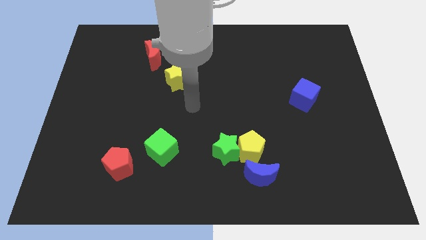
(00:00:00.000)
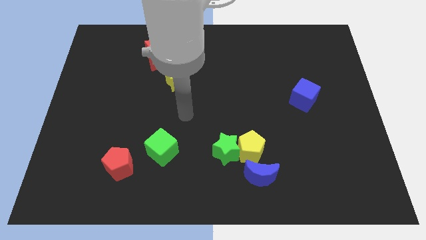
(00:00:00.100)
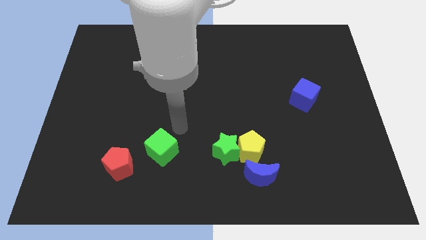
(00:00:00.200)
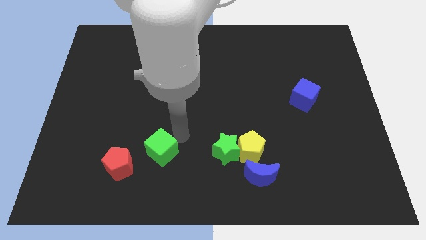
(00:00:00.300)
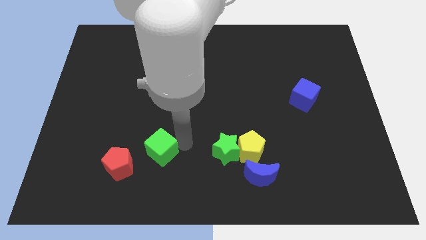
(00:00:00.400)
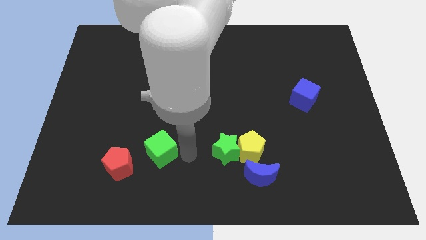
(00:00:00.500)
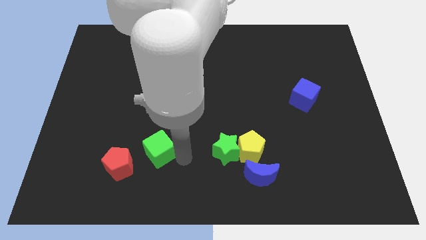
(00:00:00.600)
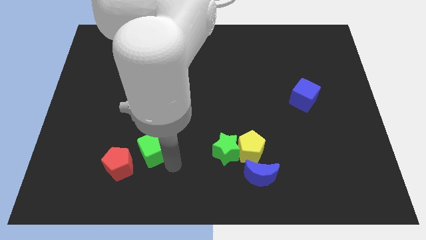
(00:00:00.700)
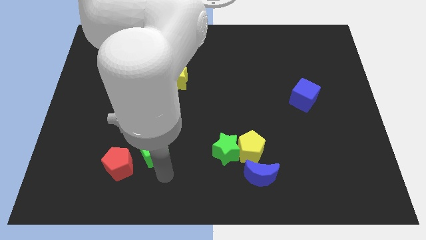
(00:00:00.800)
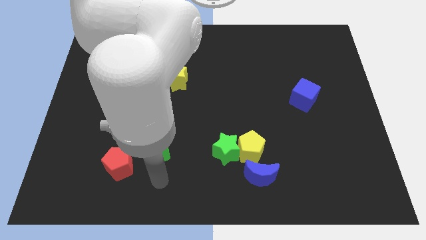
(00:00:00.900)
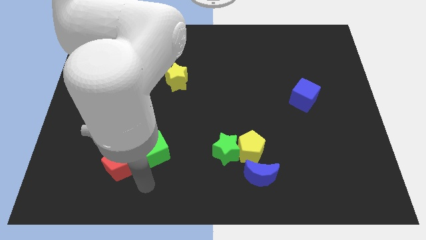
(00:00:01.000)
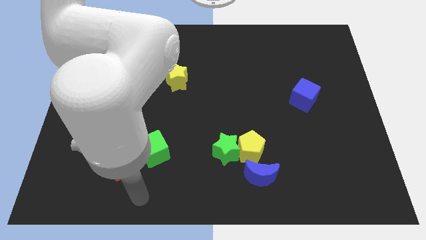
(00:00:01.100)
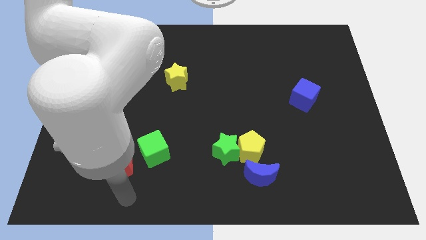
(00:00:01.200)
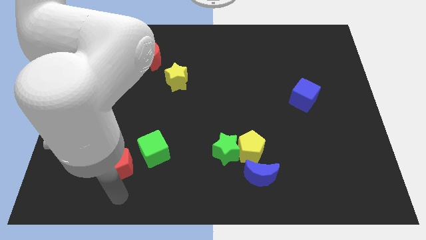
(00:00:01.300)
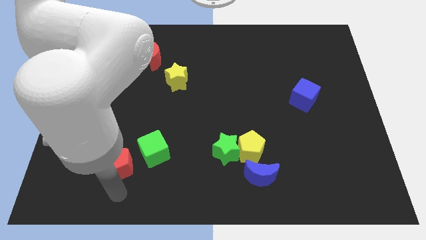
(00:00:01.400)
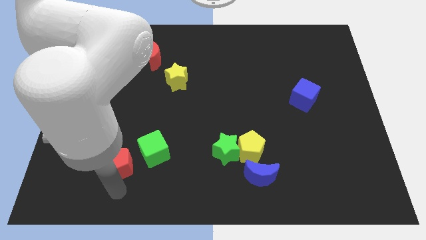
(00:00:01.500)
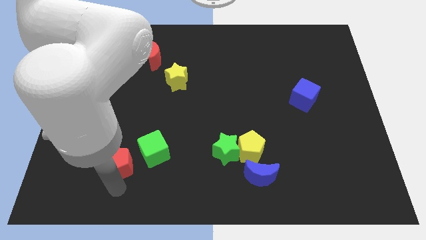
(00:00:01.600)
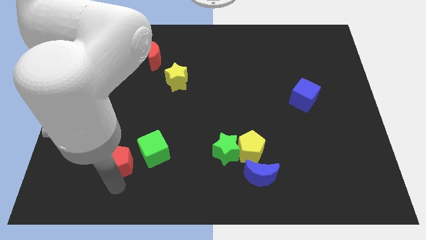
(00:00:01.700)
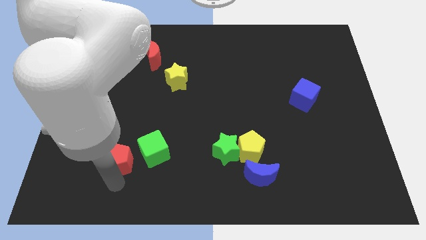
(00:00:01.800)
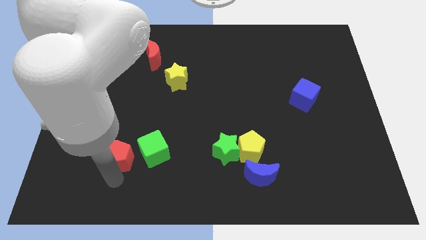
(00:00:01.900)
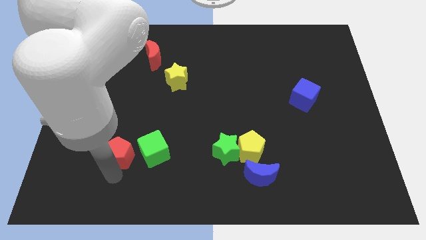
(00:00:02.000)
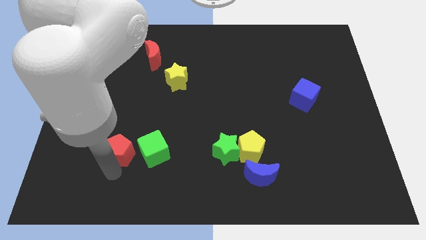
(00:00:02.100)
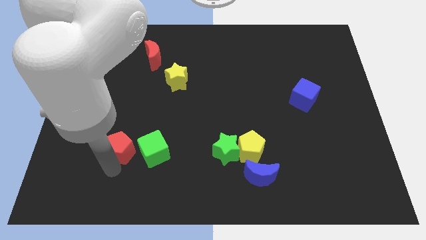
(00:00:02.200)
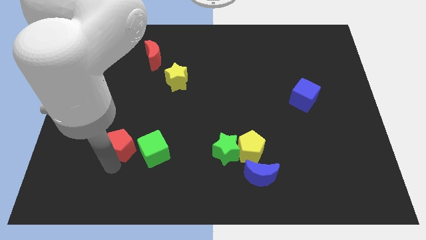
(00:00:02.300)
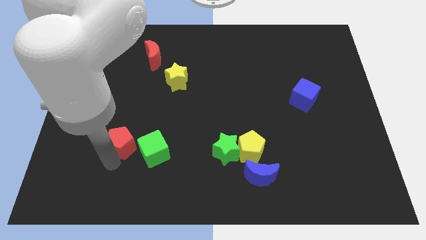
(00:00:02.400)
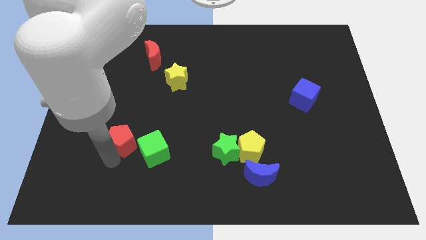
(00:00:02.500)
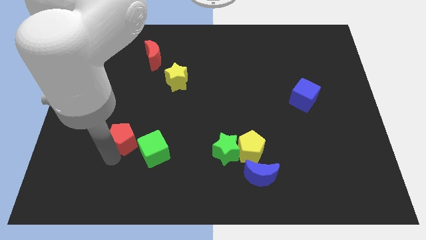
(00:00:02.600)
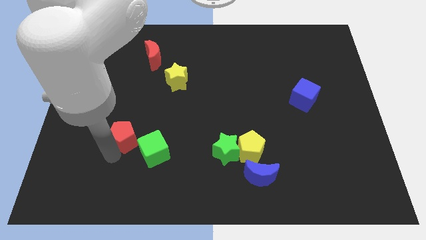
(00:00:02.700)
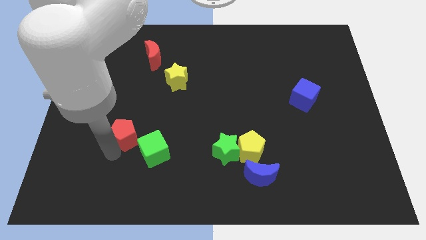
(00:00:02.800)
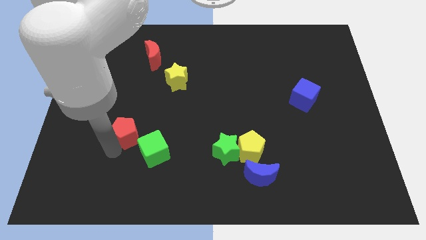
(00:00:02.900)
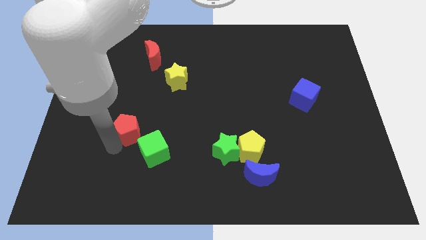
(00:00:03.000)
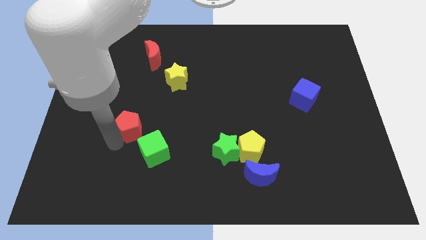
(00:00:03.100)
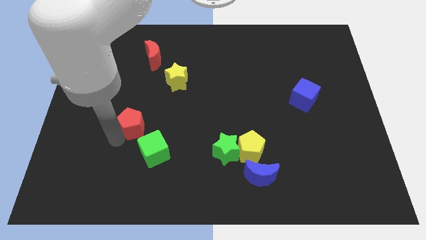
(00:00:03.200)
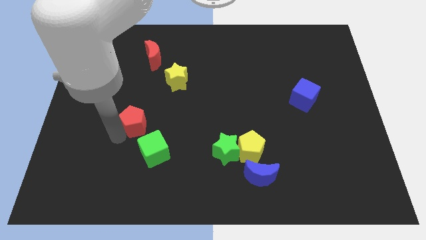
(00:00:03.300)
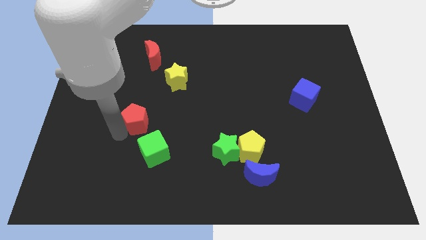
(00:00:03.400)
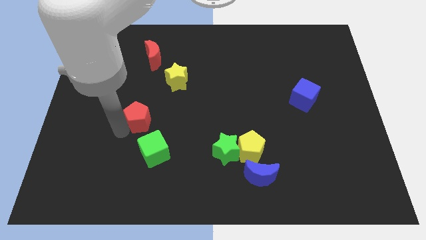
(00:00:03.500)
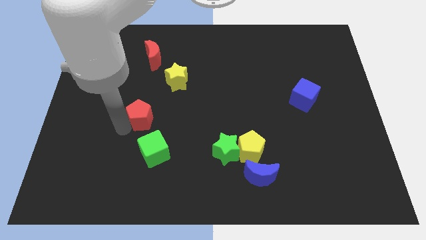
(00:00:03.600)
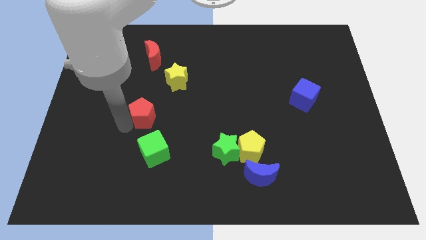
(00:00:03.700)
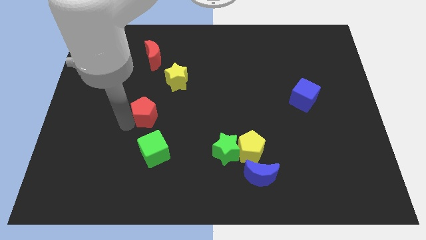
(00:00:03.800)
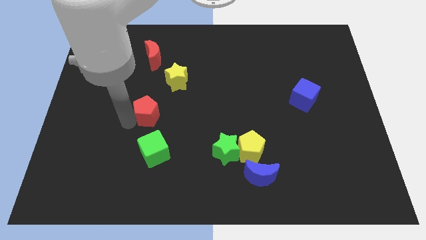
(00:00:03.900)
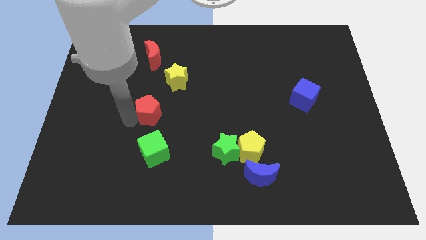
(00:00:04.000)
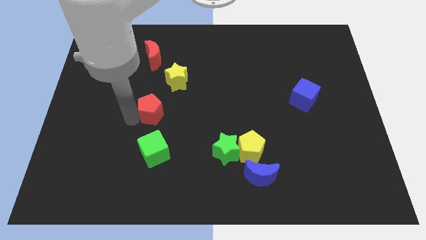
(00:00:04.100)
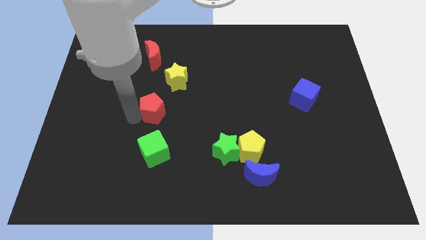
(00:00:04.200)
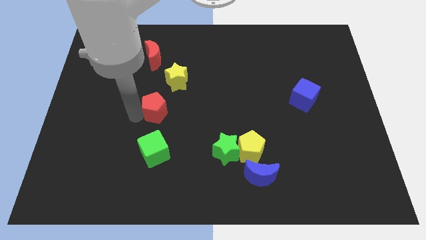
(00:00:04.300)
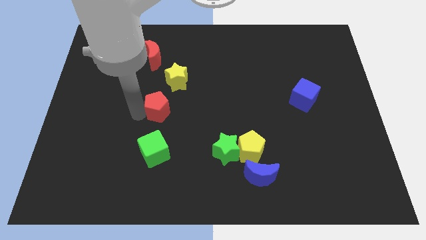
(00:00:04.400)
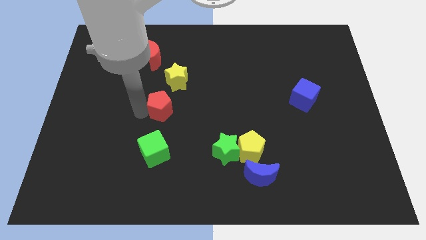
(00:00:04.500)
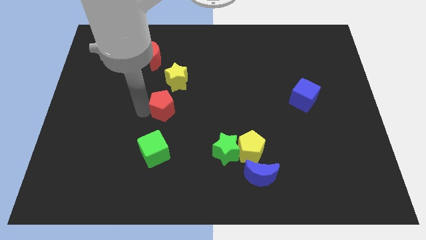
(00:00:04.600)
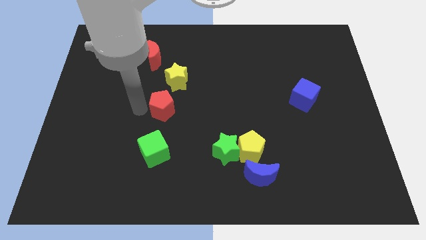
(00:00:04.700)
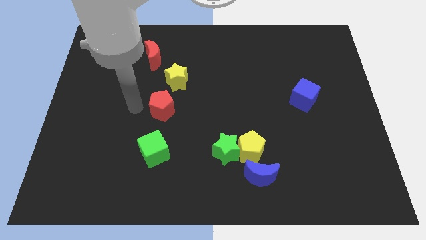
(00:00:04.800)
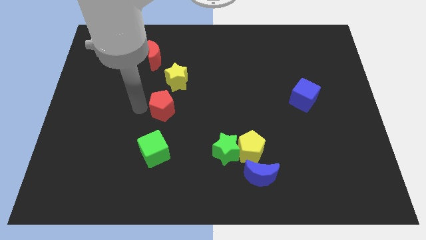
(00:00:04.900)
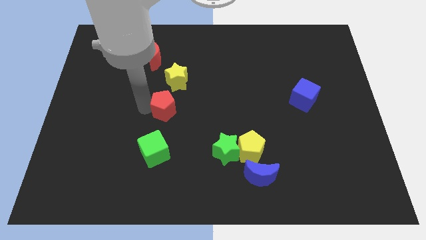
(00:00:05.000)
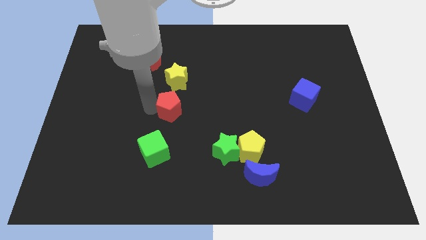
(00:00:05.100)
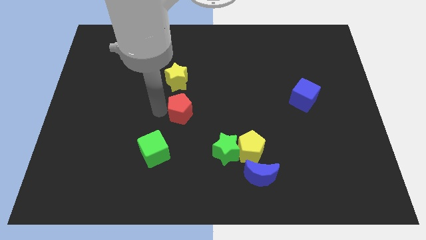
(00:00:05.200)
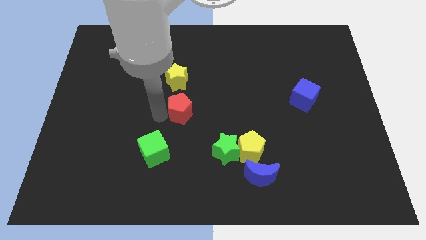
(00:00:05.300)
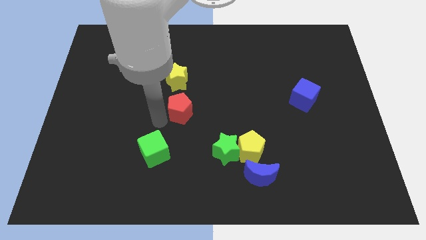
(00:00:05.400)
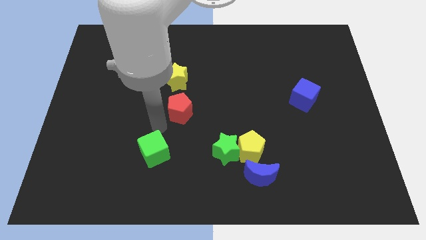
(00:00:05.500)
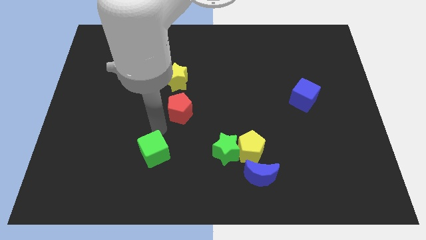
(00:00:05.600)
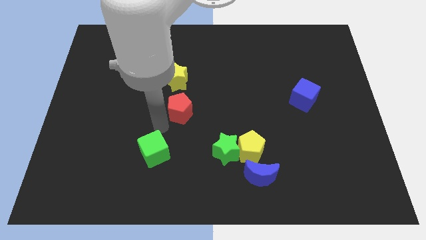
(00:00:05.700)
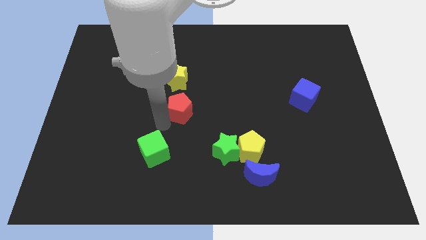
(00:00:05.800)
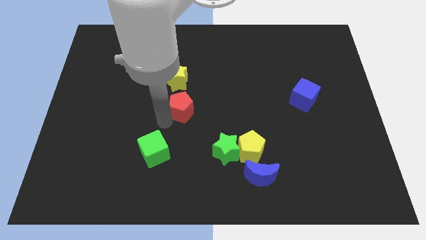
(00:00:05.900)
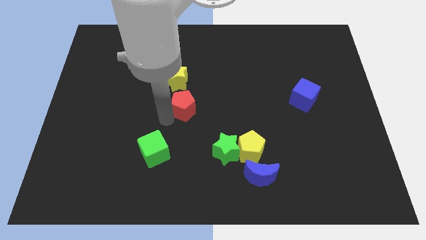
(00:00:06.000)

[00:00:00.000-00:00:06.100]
slide the red pentagon to the bottom right of the yellow star

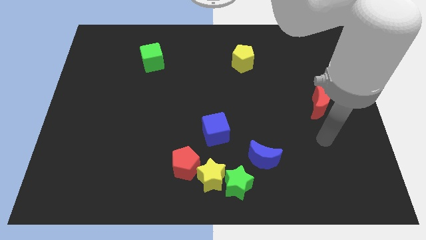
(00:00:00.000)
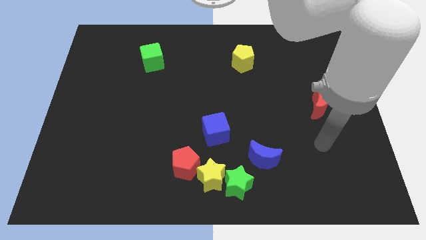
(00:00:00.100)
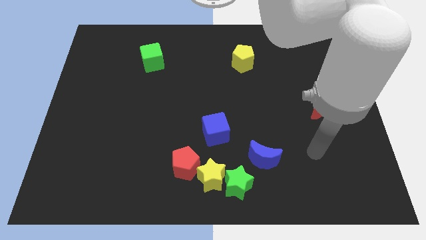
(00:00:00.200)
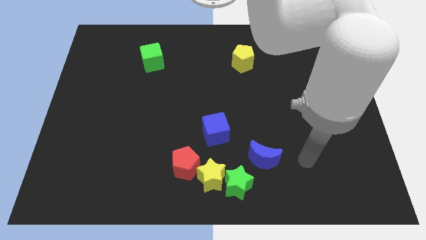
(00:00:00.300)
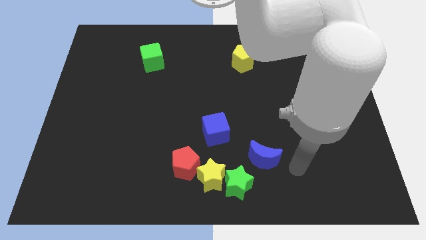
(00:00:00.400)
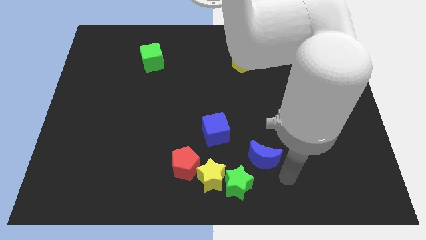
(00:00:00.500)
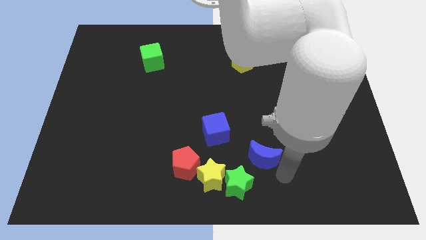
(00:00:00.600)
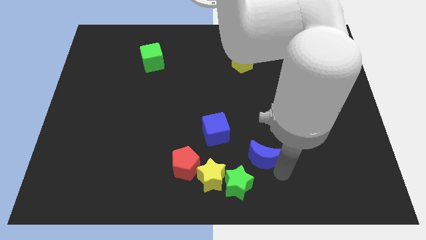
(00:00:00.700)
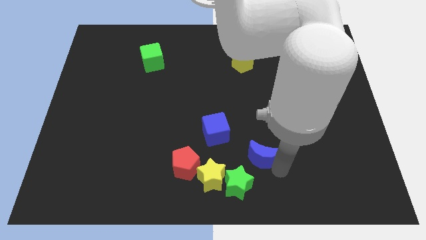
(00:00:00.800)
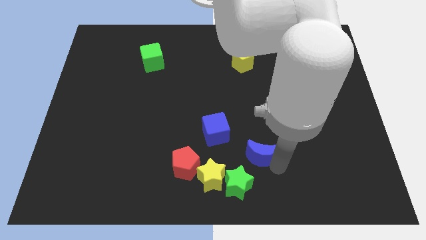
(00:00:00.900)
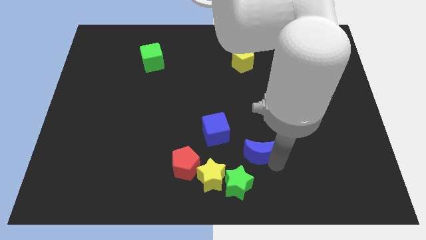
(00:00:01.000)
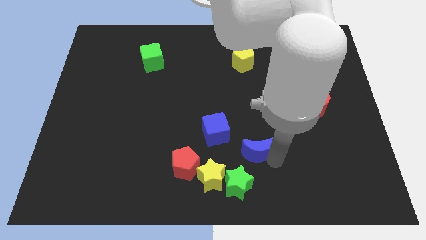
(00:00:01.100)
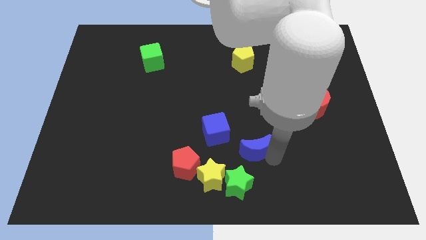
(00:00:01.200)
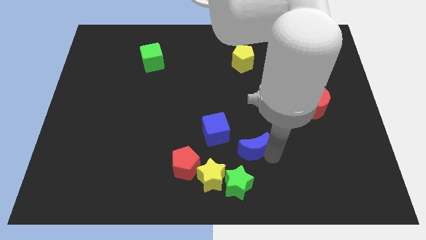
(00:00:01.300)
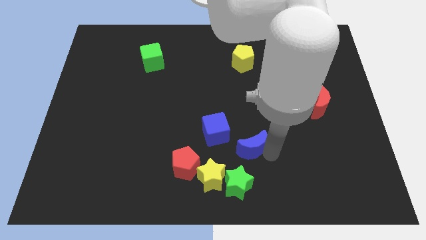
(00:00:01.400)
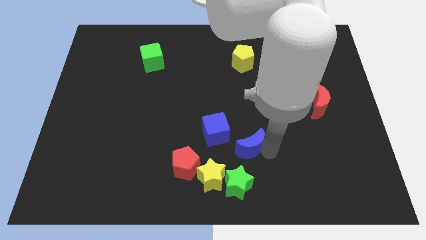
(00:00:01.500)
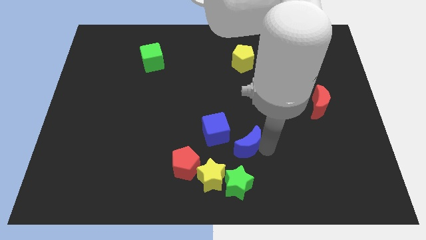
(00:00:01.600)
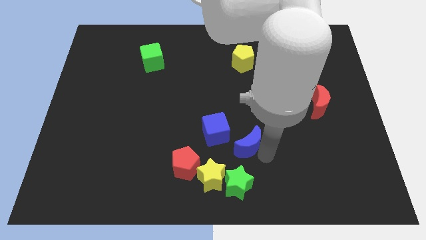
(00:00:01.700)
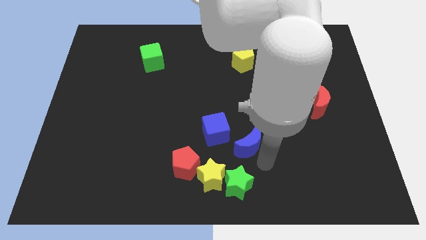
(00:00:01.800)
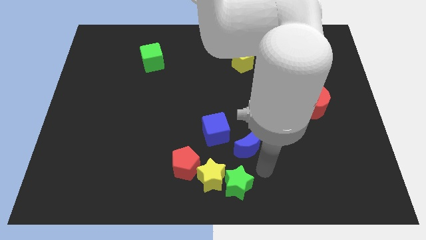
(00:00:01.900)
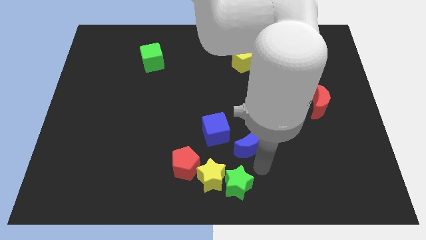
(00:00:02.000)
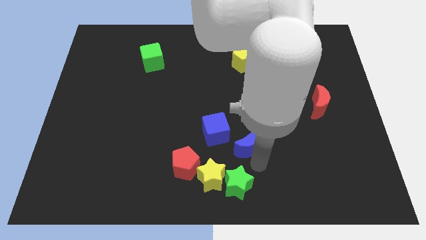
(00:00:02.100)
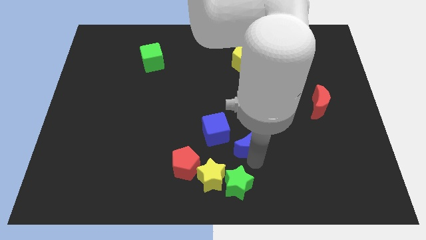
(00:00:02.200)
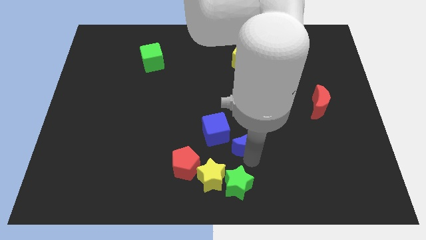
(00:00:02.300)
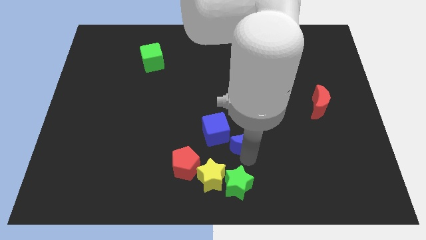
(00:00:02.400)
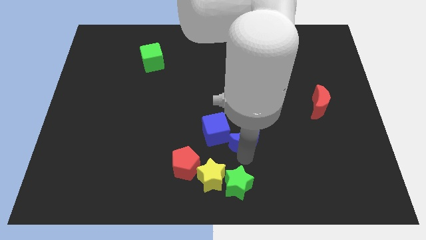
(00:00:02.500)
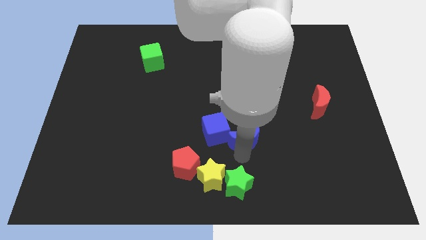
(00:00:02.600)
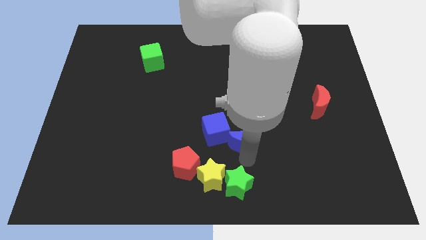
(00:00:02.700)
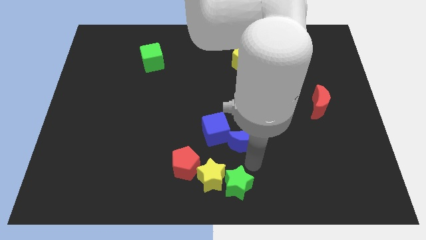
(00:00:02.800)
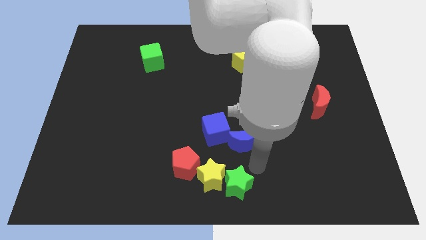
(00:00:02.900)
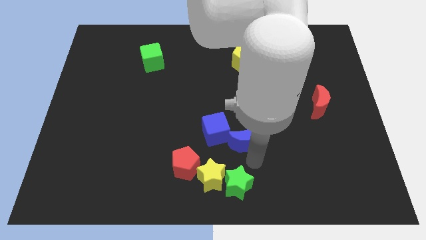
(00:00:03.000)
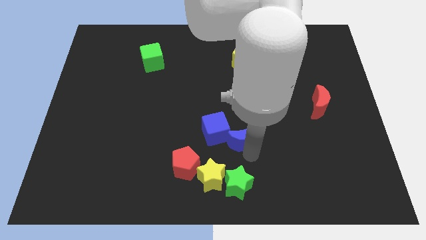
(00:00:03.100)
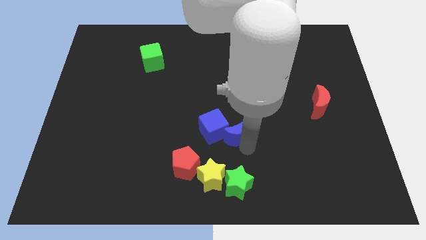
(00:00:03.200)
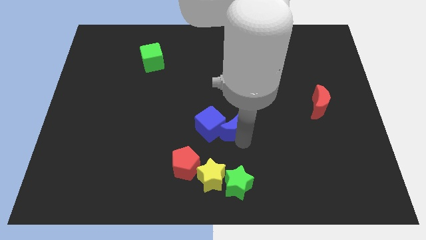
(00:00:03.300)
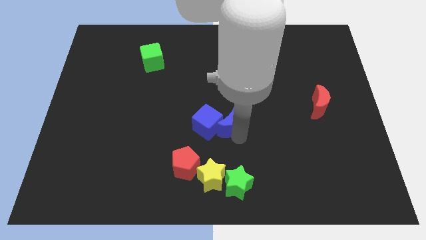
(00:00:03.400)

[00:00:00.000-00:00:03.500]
put the blue moon to the top side of the yellow star
